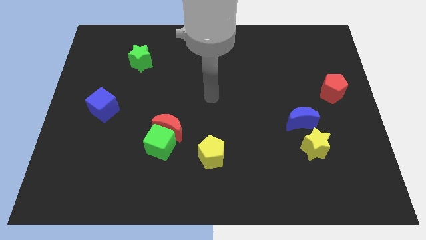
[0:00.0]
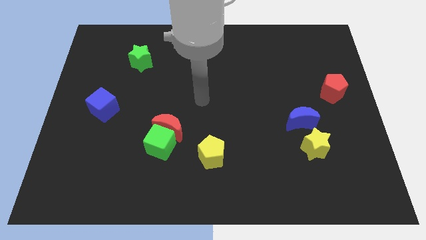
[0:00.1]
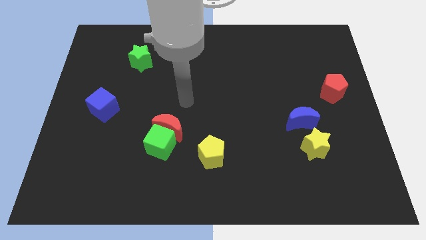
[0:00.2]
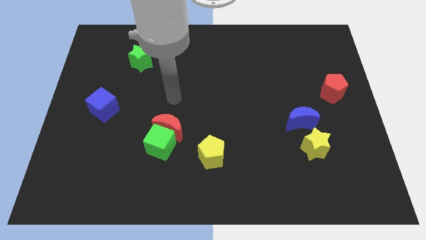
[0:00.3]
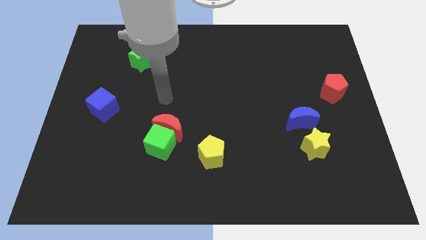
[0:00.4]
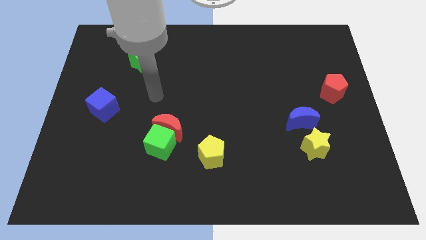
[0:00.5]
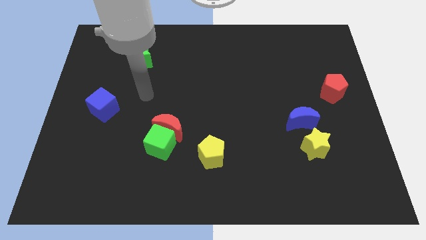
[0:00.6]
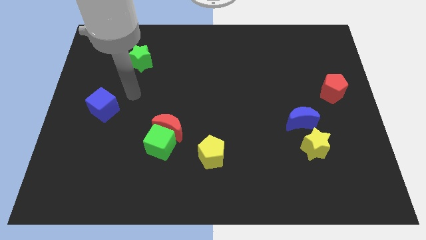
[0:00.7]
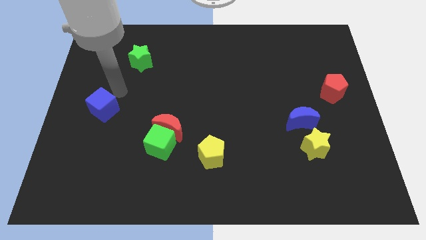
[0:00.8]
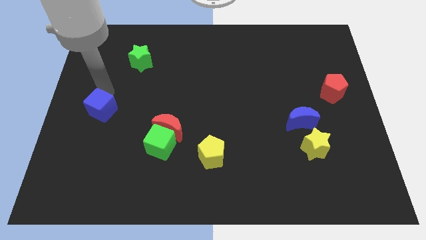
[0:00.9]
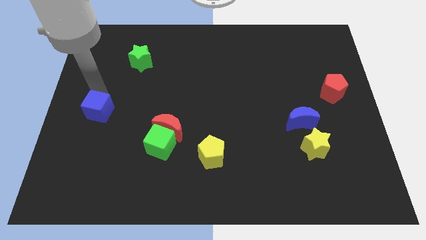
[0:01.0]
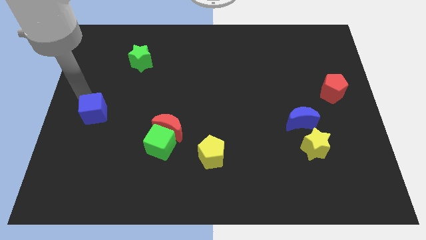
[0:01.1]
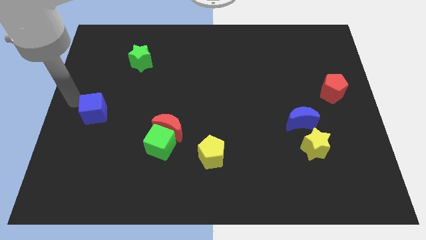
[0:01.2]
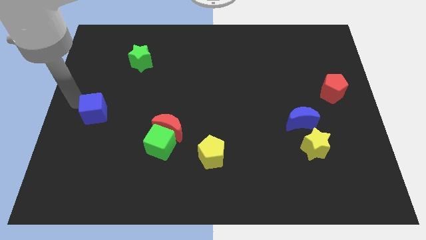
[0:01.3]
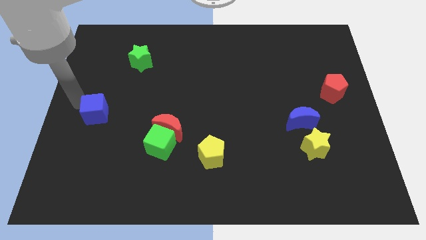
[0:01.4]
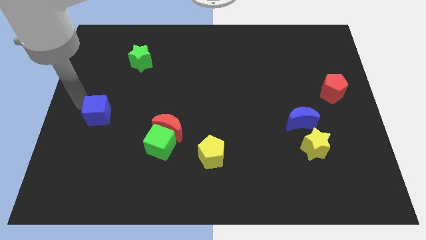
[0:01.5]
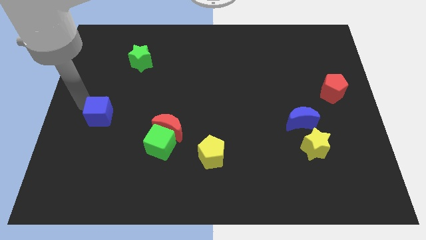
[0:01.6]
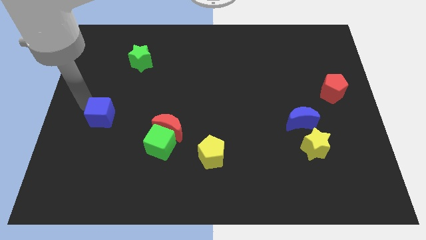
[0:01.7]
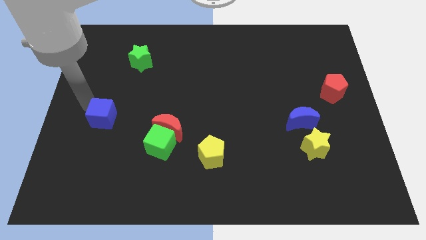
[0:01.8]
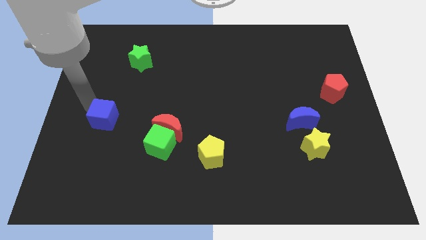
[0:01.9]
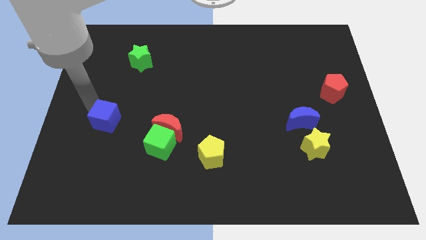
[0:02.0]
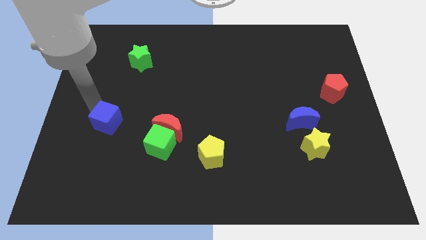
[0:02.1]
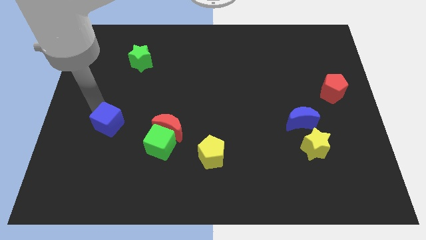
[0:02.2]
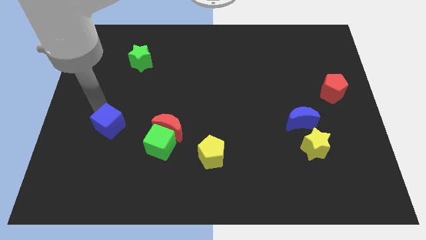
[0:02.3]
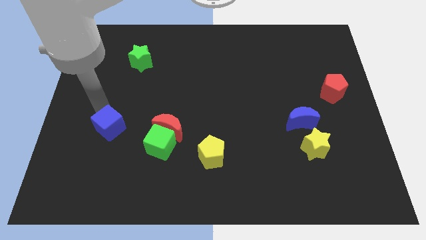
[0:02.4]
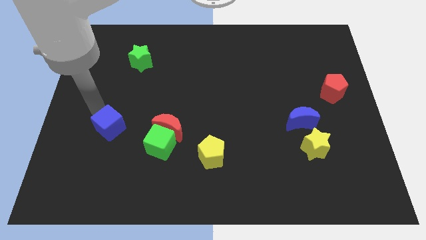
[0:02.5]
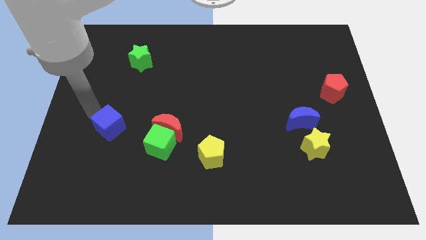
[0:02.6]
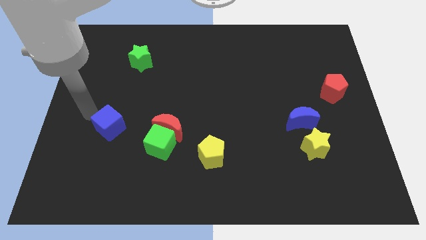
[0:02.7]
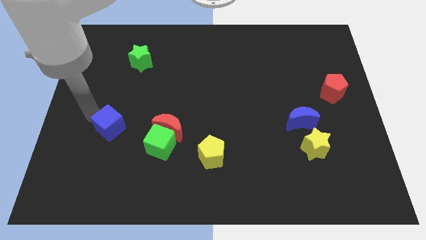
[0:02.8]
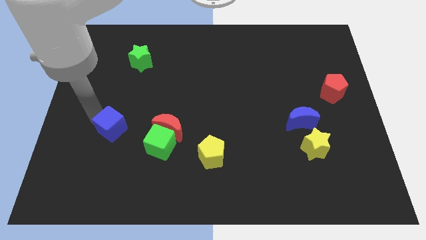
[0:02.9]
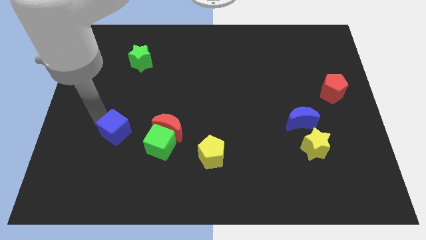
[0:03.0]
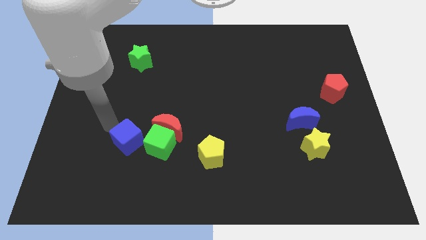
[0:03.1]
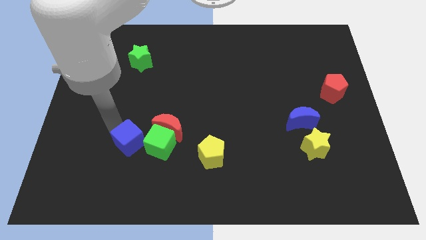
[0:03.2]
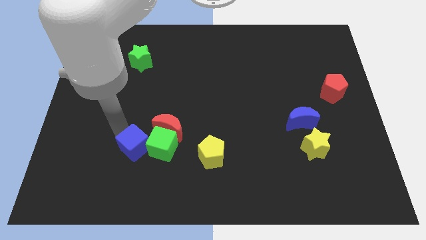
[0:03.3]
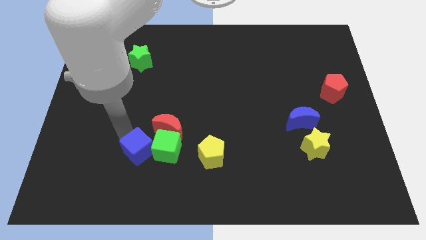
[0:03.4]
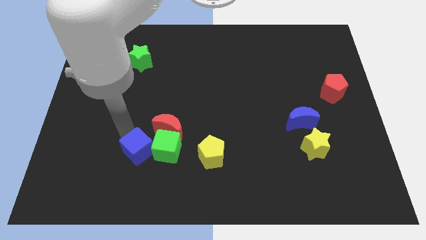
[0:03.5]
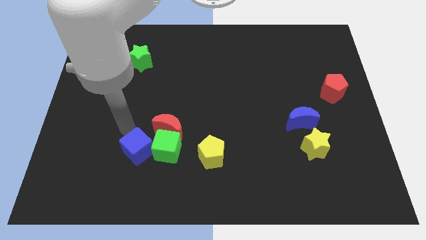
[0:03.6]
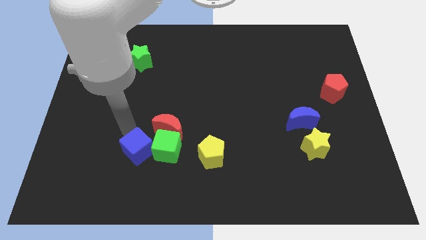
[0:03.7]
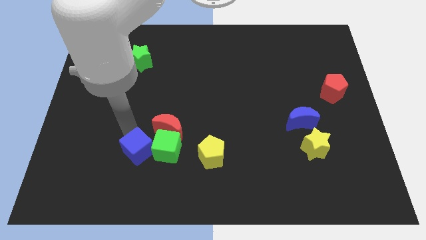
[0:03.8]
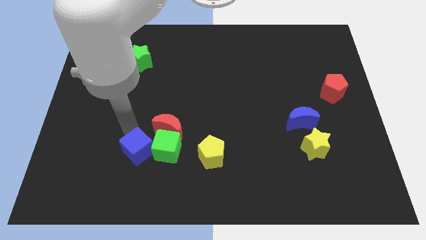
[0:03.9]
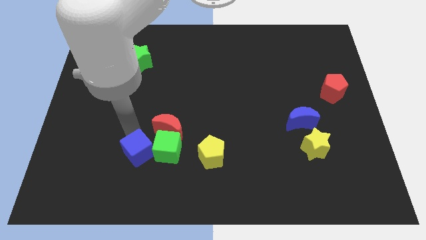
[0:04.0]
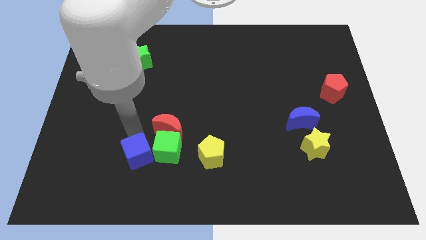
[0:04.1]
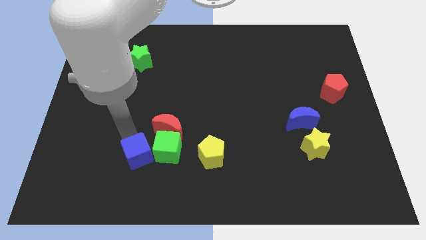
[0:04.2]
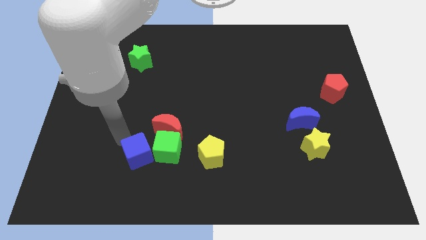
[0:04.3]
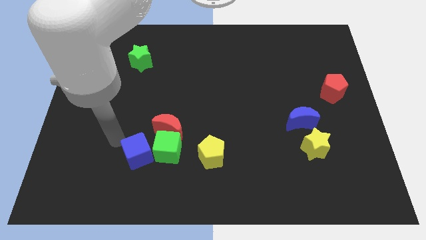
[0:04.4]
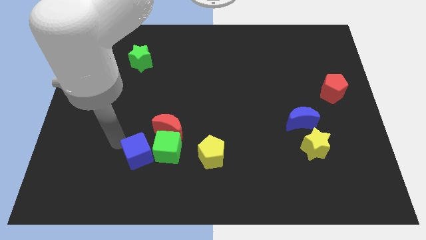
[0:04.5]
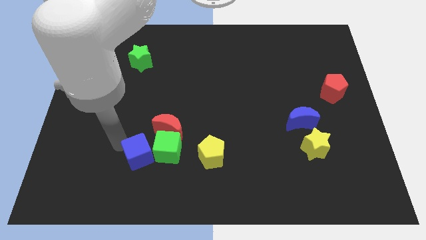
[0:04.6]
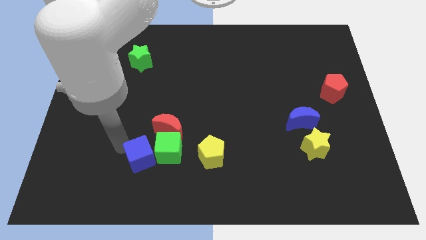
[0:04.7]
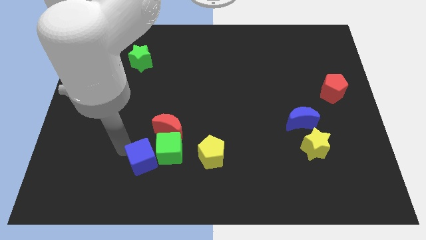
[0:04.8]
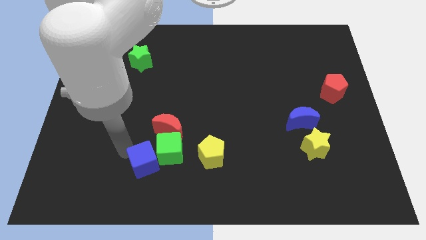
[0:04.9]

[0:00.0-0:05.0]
slide the blue cube to the bottom of the red moon

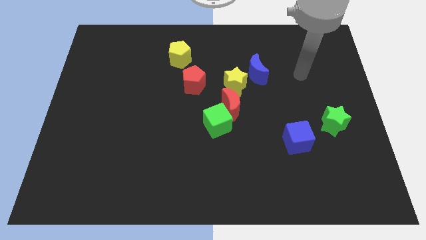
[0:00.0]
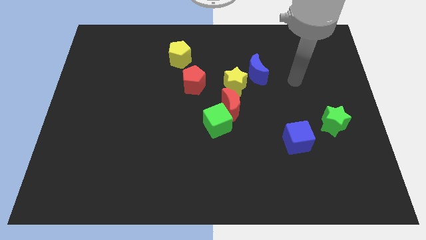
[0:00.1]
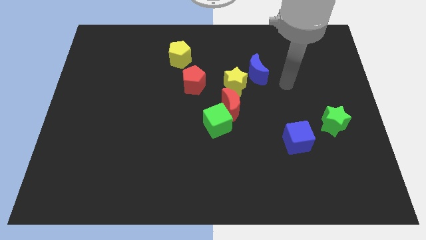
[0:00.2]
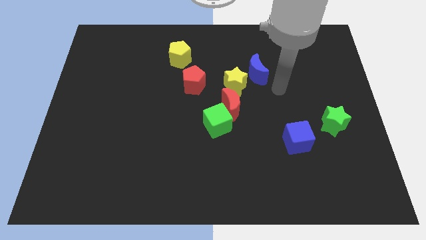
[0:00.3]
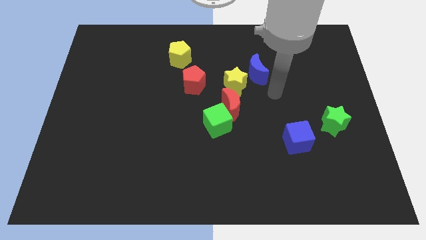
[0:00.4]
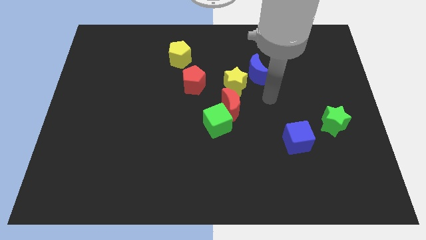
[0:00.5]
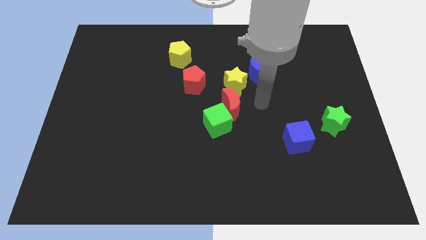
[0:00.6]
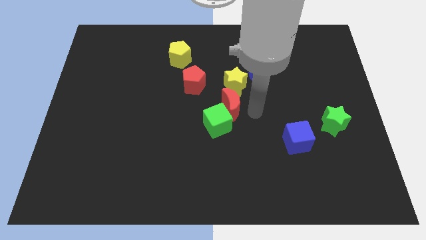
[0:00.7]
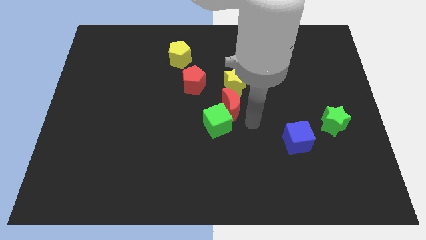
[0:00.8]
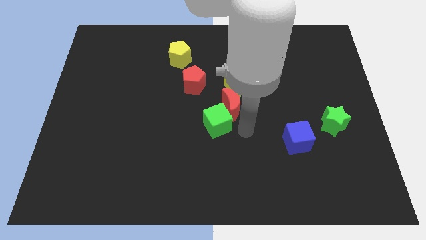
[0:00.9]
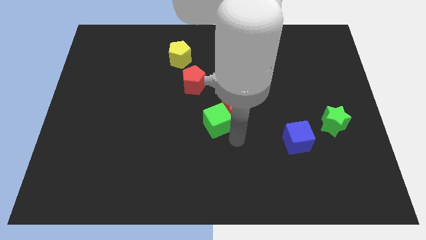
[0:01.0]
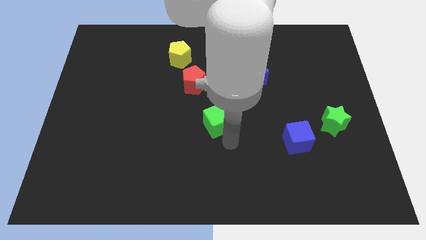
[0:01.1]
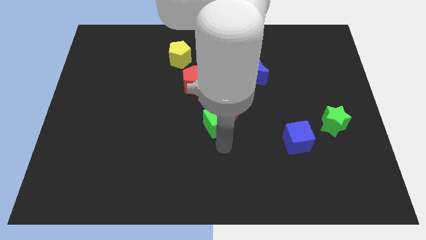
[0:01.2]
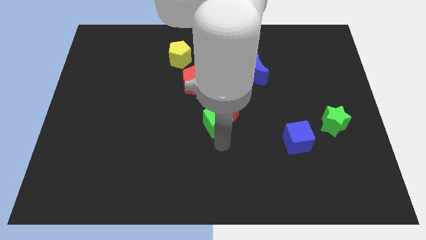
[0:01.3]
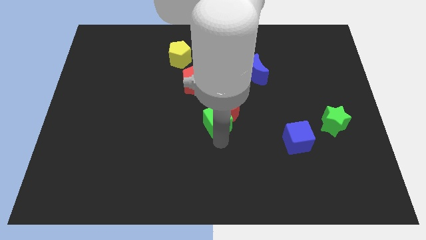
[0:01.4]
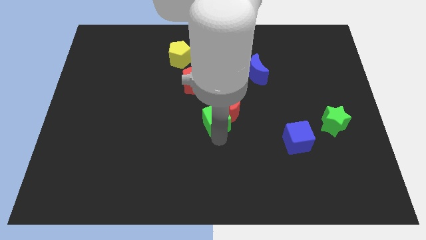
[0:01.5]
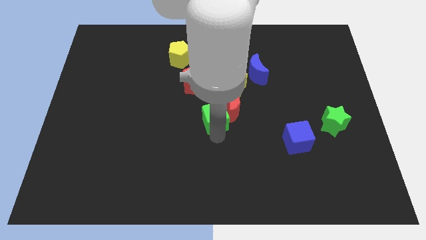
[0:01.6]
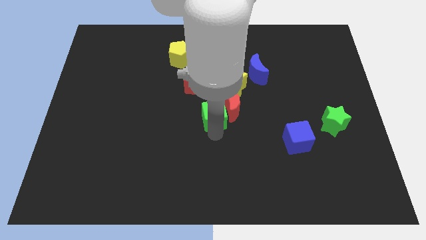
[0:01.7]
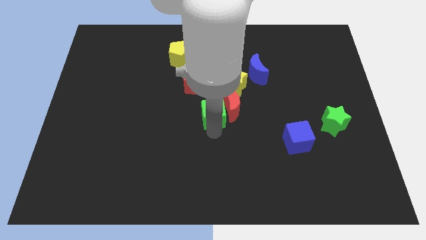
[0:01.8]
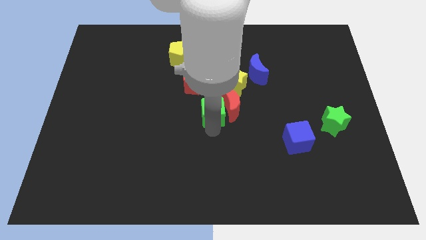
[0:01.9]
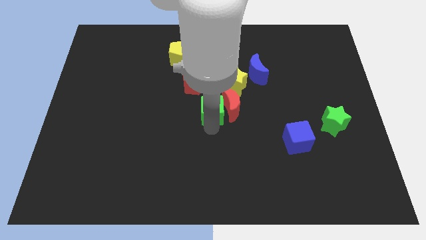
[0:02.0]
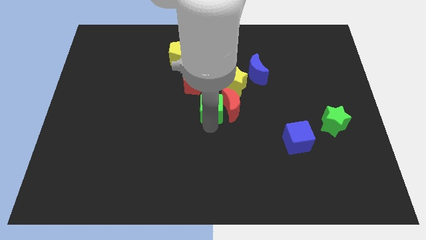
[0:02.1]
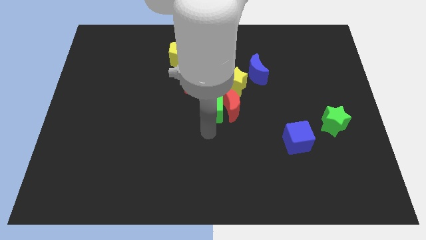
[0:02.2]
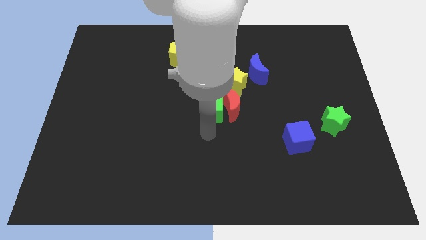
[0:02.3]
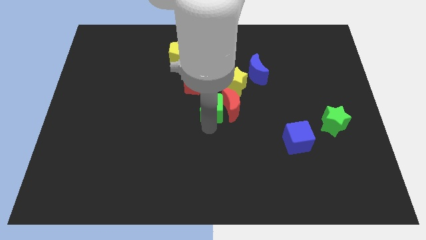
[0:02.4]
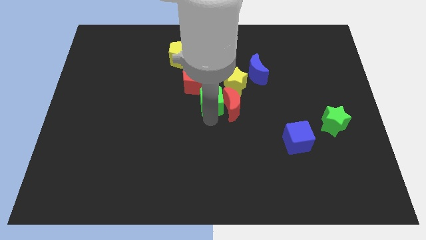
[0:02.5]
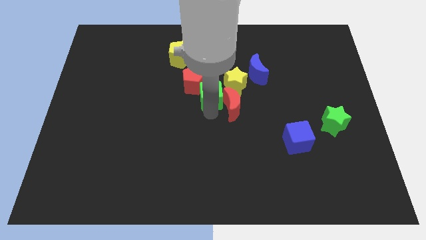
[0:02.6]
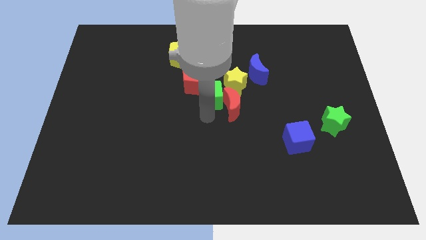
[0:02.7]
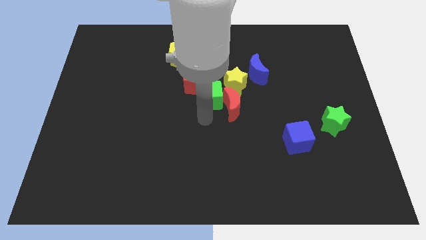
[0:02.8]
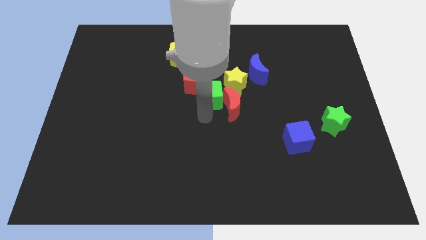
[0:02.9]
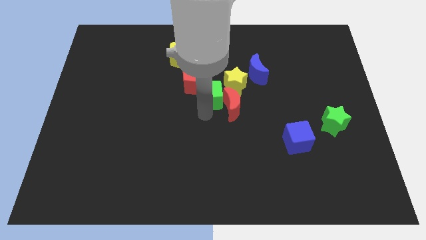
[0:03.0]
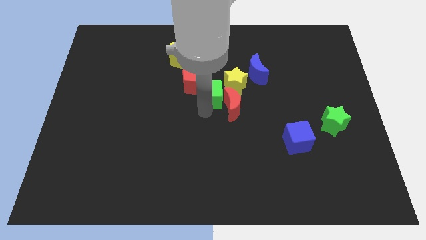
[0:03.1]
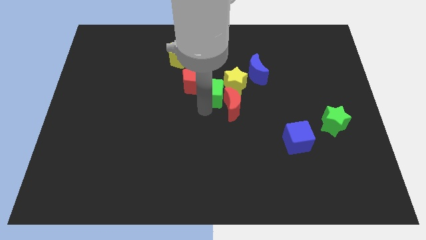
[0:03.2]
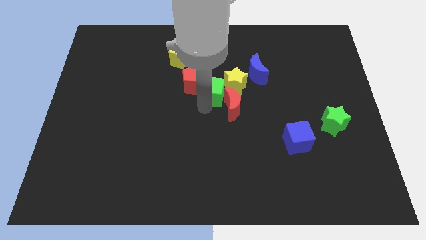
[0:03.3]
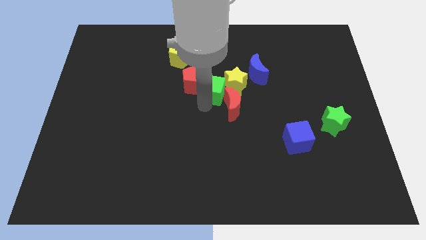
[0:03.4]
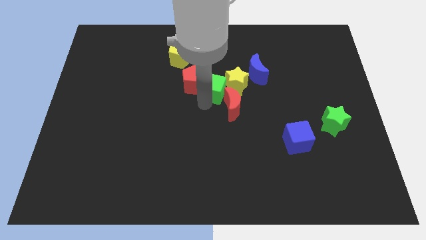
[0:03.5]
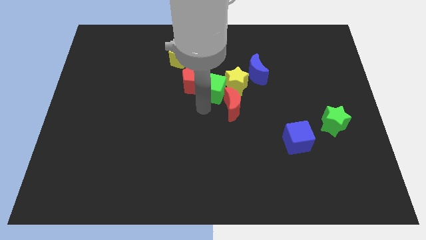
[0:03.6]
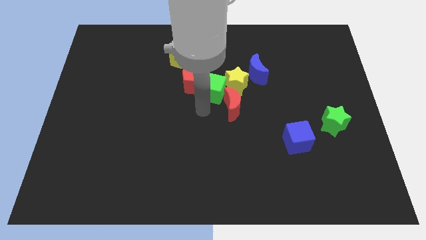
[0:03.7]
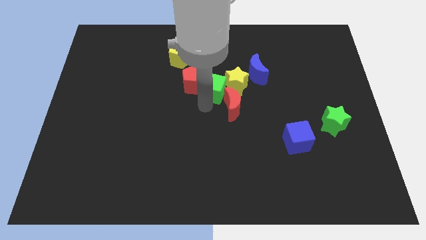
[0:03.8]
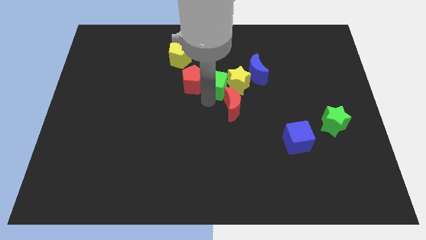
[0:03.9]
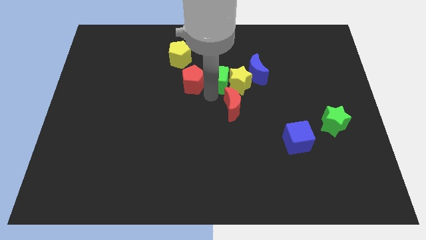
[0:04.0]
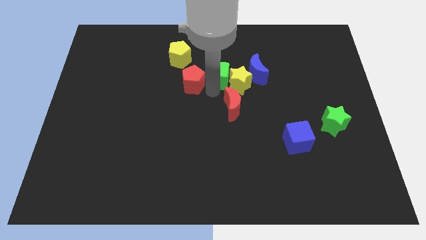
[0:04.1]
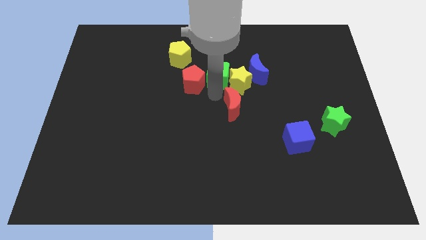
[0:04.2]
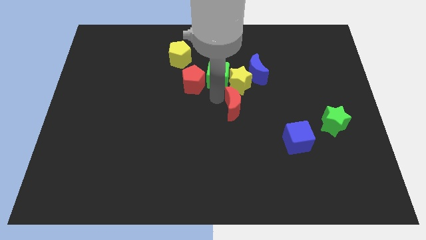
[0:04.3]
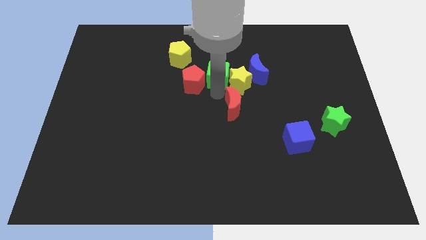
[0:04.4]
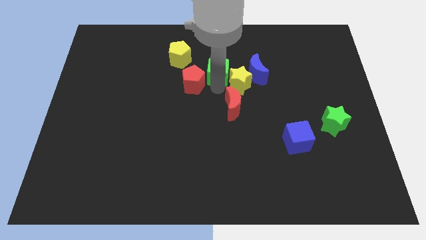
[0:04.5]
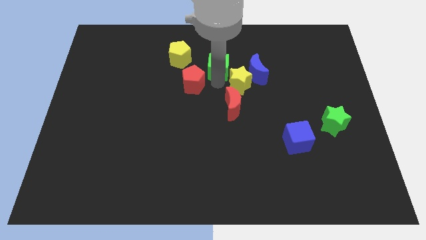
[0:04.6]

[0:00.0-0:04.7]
move the green cube to the right side of the yellow pentagon
